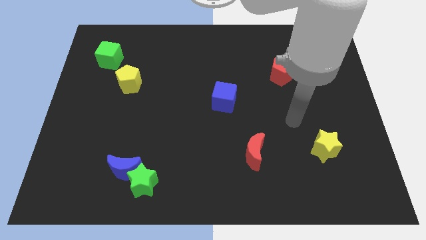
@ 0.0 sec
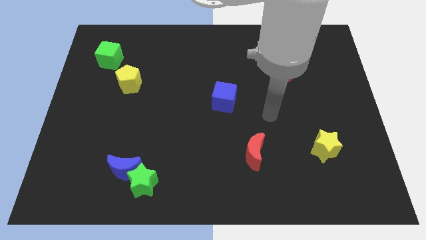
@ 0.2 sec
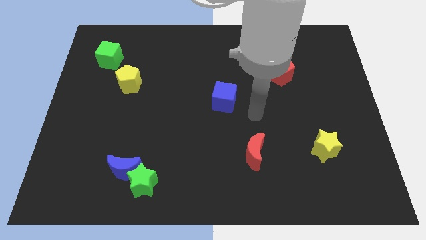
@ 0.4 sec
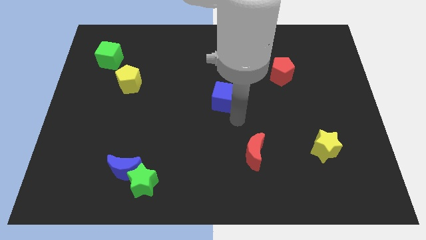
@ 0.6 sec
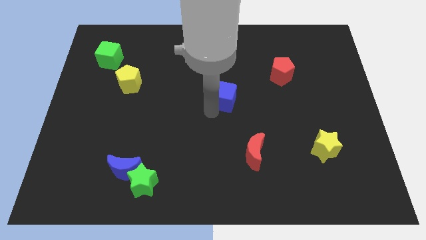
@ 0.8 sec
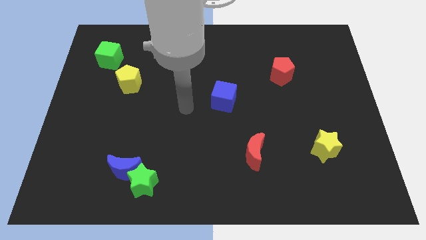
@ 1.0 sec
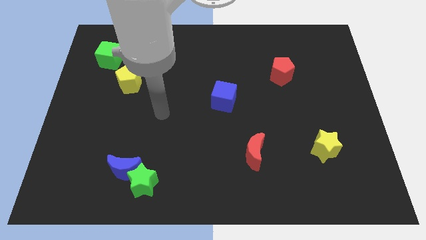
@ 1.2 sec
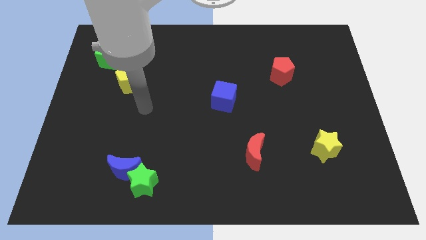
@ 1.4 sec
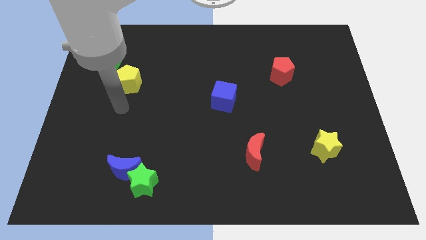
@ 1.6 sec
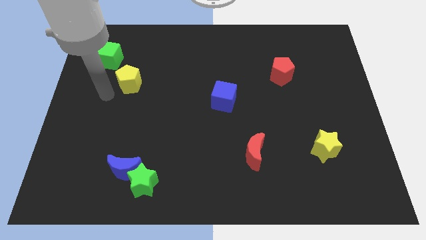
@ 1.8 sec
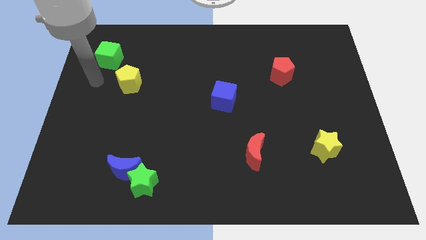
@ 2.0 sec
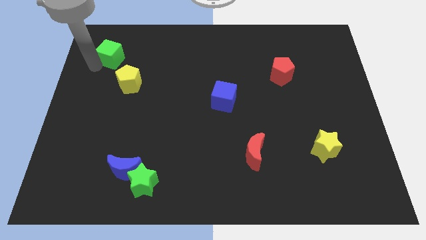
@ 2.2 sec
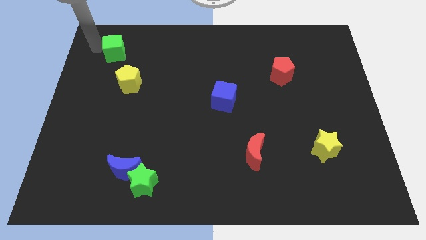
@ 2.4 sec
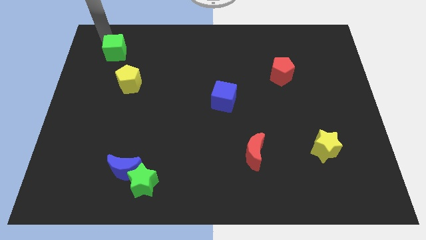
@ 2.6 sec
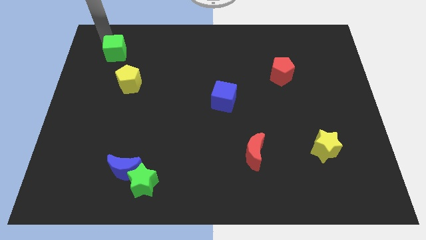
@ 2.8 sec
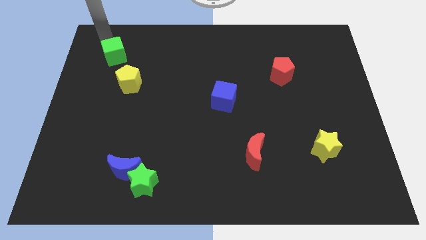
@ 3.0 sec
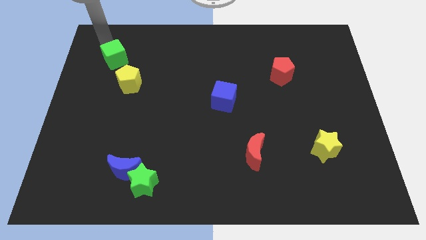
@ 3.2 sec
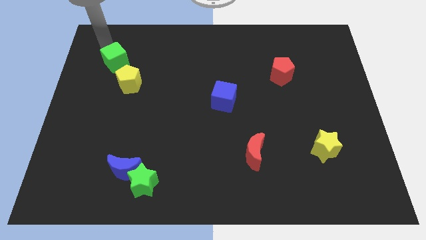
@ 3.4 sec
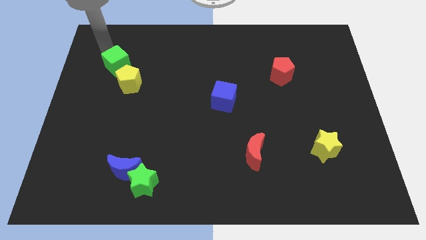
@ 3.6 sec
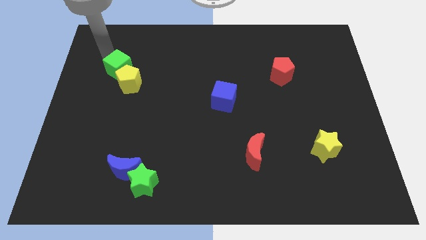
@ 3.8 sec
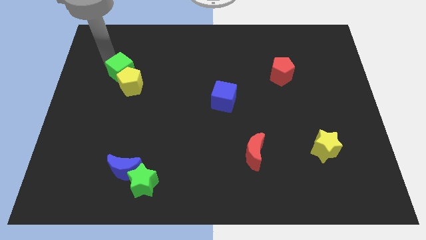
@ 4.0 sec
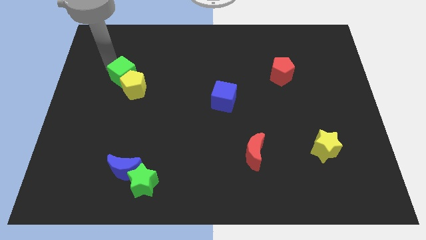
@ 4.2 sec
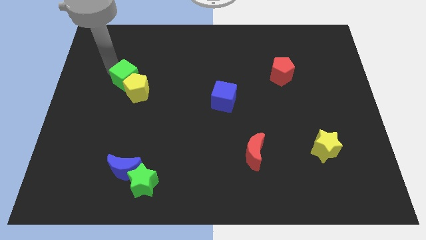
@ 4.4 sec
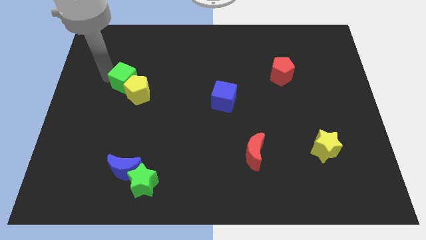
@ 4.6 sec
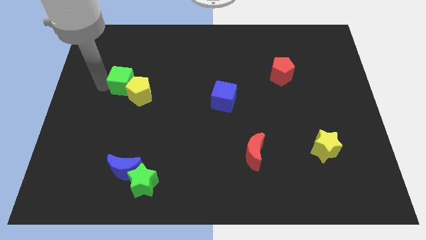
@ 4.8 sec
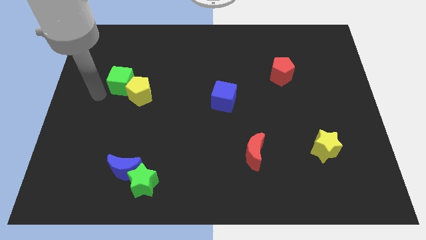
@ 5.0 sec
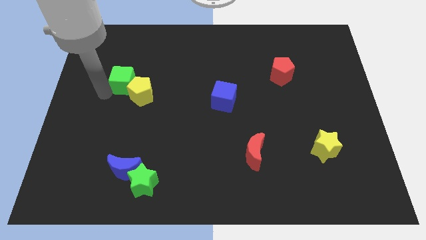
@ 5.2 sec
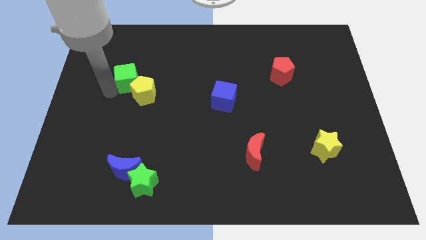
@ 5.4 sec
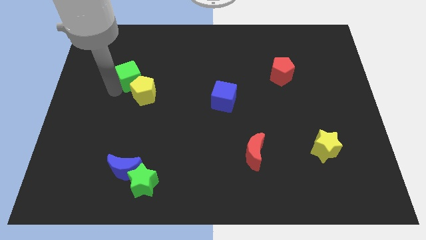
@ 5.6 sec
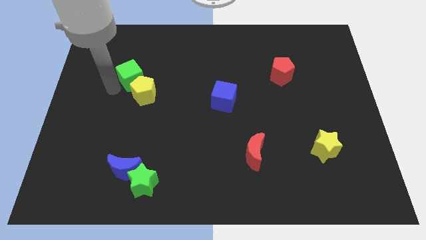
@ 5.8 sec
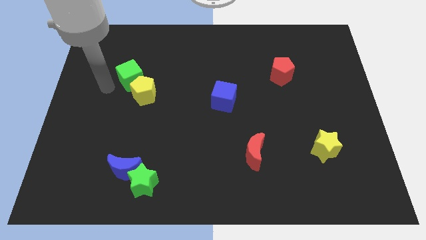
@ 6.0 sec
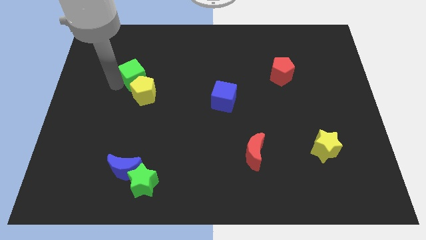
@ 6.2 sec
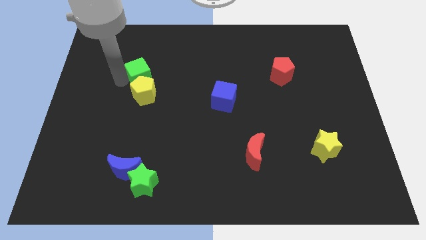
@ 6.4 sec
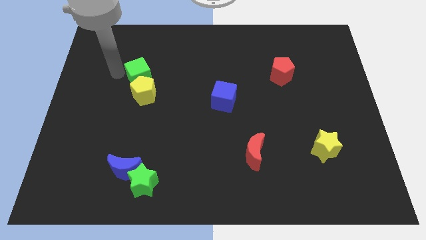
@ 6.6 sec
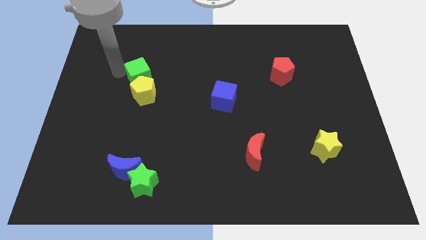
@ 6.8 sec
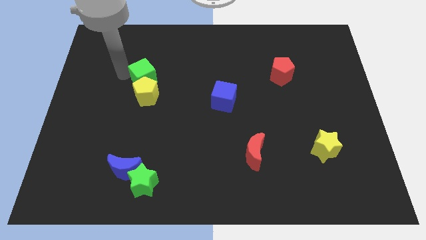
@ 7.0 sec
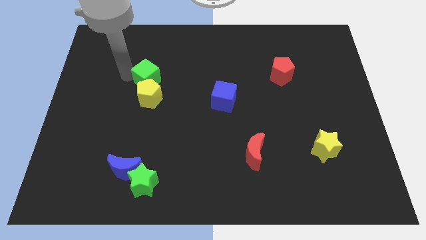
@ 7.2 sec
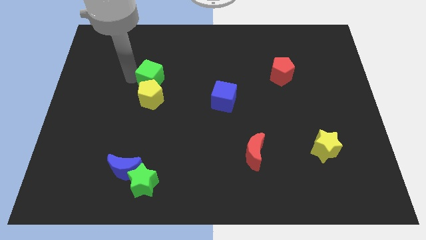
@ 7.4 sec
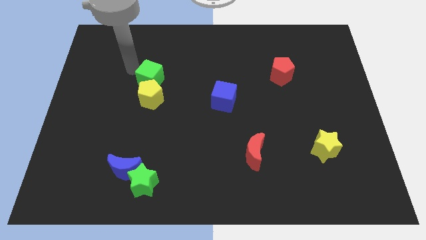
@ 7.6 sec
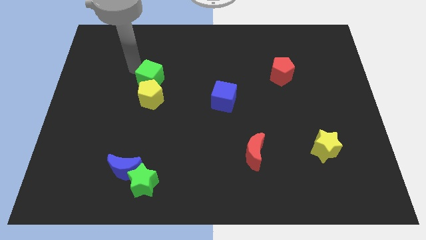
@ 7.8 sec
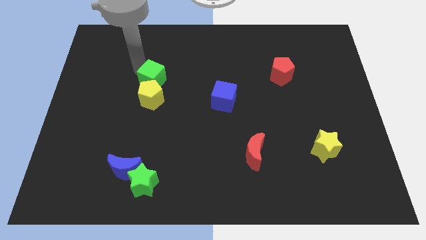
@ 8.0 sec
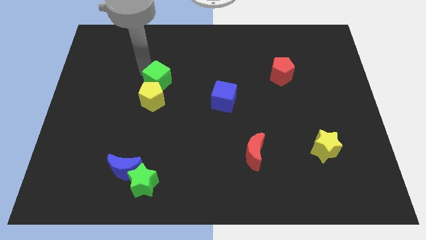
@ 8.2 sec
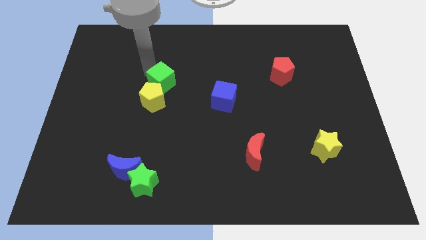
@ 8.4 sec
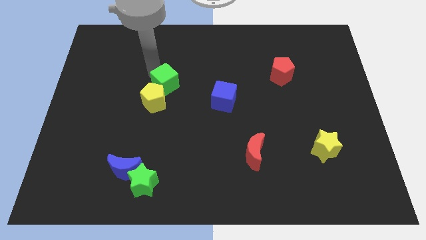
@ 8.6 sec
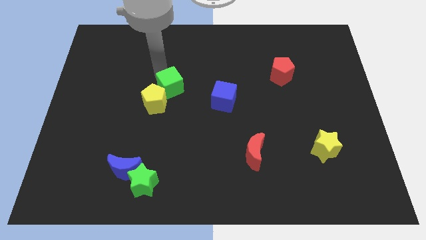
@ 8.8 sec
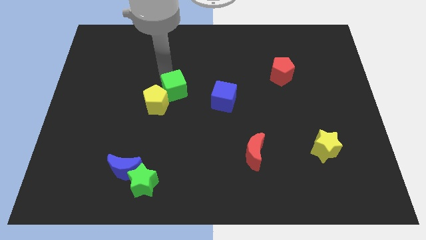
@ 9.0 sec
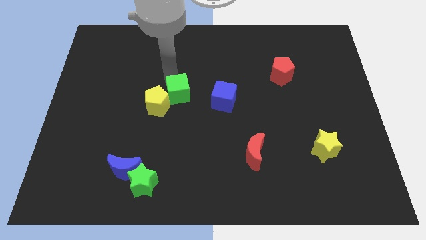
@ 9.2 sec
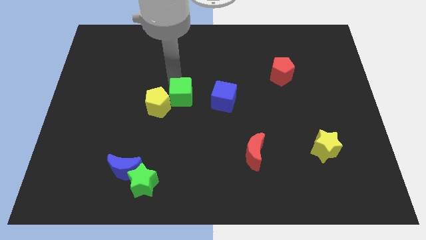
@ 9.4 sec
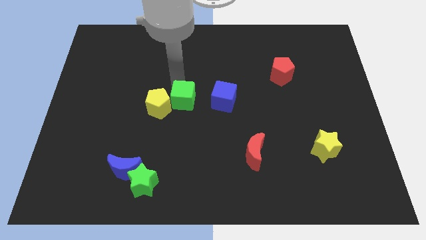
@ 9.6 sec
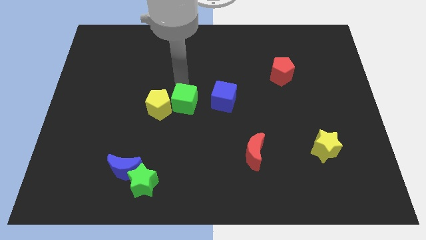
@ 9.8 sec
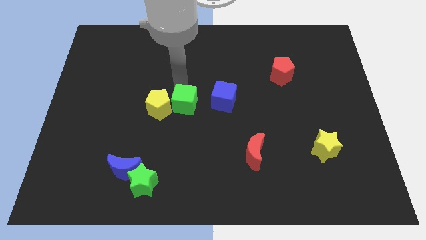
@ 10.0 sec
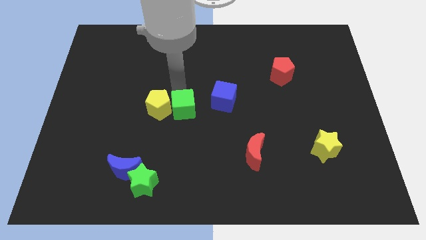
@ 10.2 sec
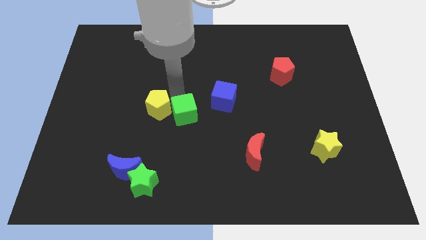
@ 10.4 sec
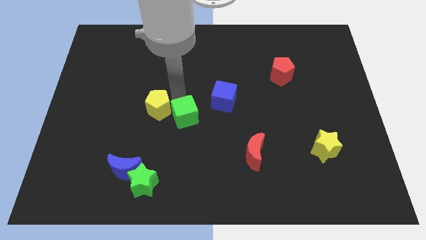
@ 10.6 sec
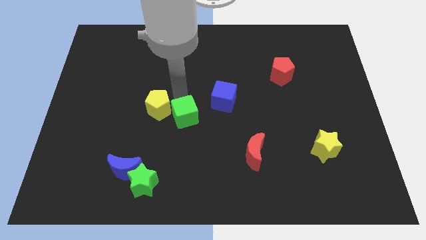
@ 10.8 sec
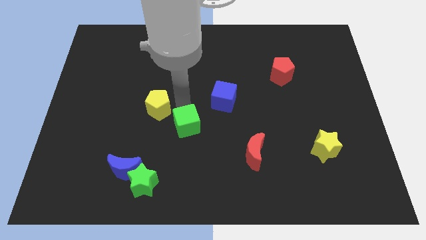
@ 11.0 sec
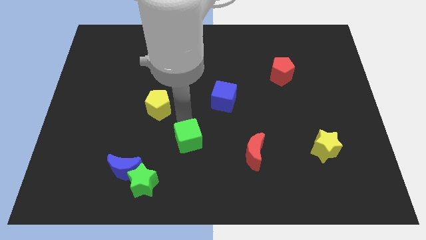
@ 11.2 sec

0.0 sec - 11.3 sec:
move the green cube left of the red moon

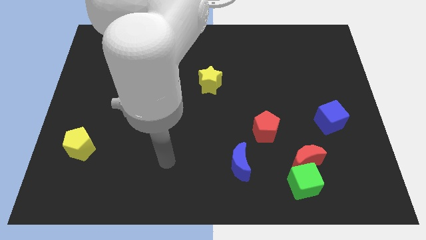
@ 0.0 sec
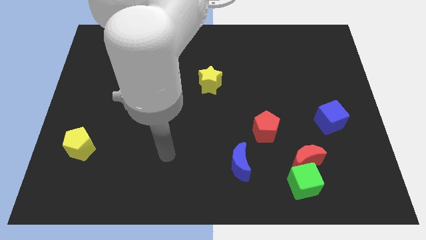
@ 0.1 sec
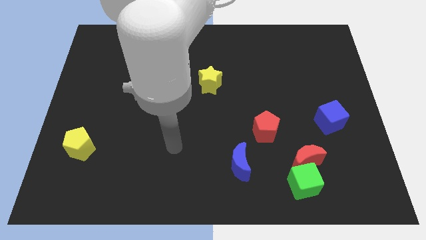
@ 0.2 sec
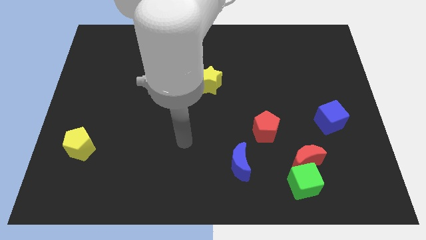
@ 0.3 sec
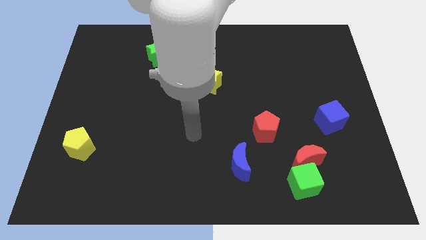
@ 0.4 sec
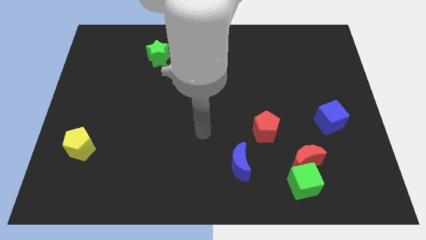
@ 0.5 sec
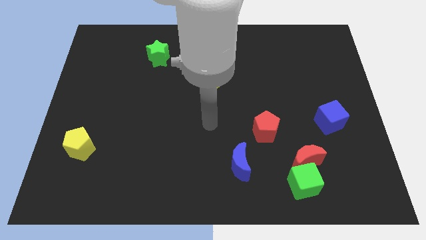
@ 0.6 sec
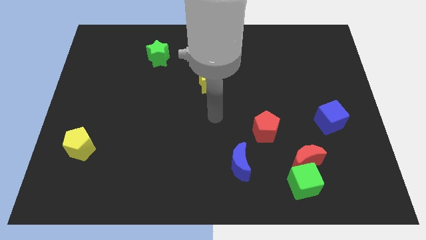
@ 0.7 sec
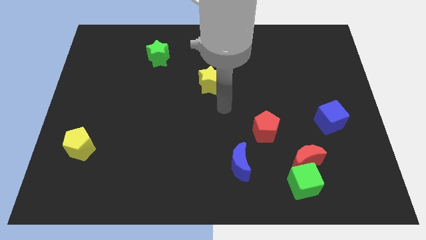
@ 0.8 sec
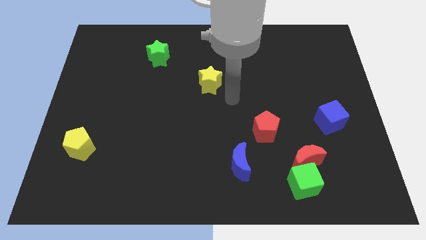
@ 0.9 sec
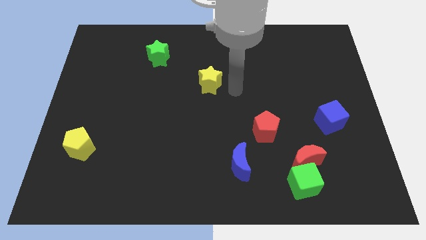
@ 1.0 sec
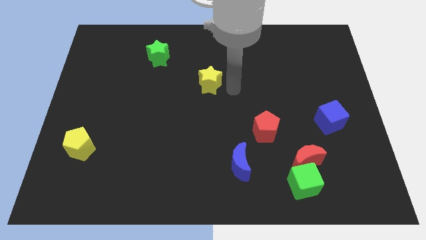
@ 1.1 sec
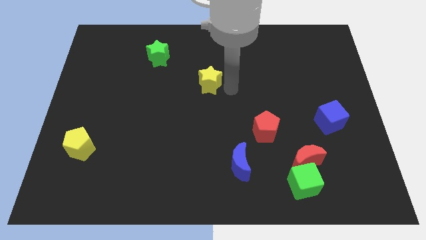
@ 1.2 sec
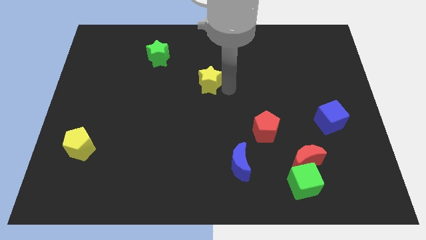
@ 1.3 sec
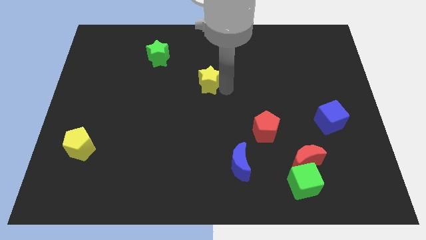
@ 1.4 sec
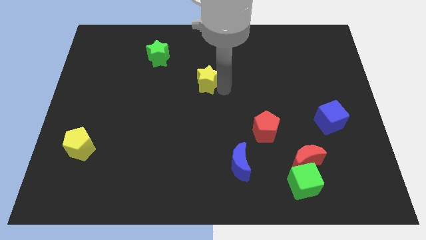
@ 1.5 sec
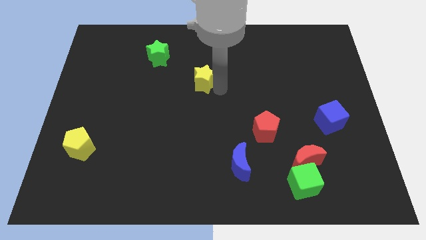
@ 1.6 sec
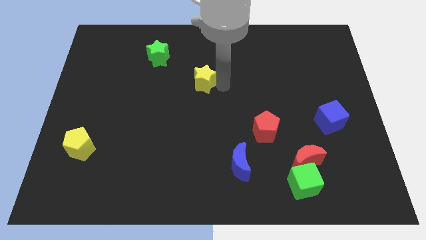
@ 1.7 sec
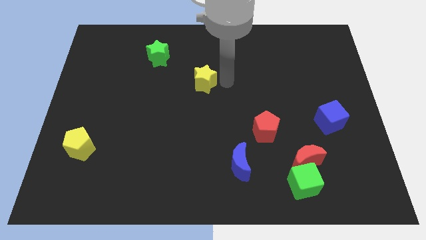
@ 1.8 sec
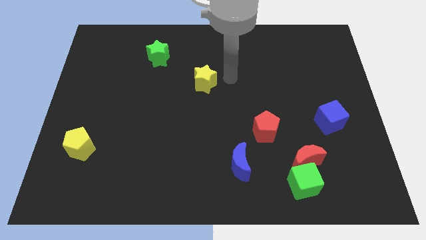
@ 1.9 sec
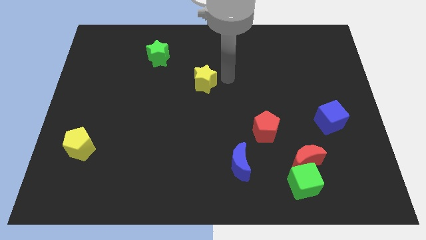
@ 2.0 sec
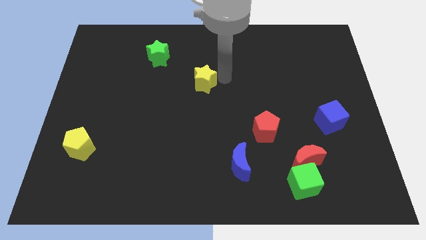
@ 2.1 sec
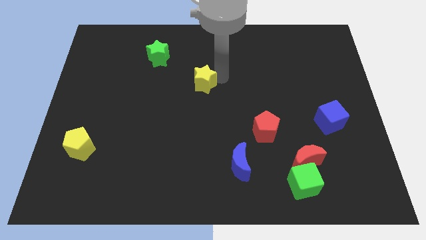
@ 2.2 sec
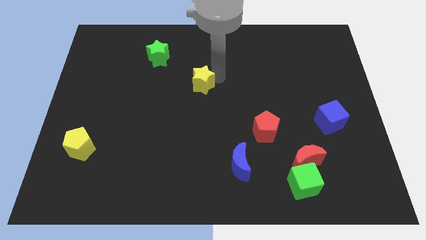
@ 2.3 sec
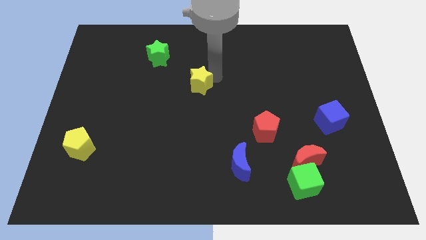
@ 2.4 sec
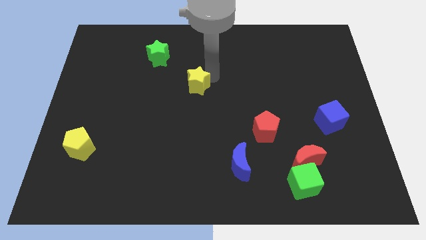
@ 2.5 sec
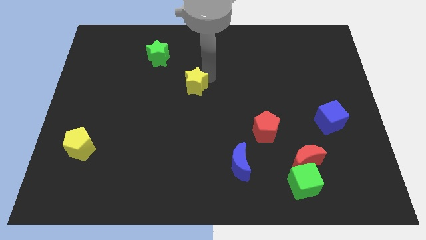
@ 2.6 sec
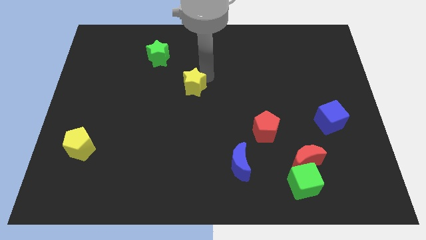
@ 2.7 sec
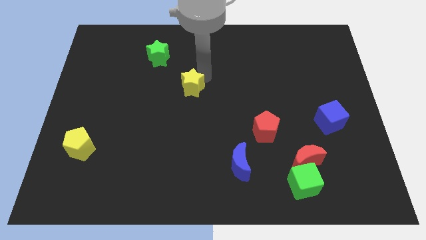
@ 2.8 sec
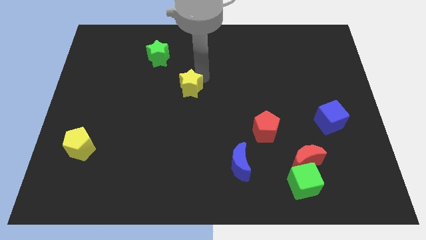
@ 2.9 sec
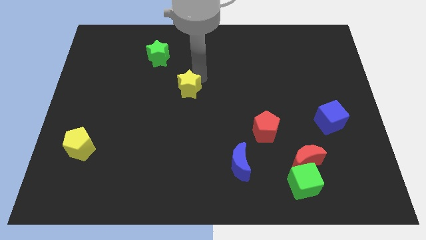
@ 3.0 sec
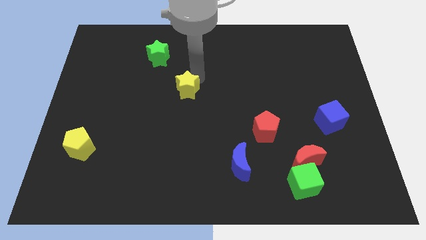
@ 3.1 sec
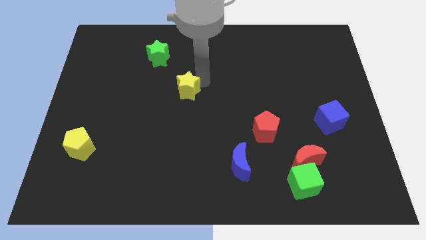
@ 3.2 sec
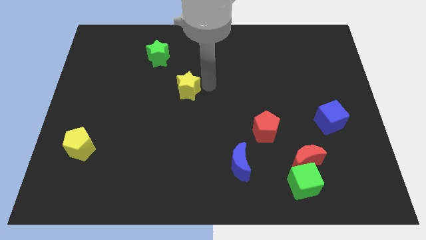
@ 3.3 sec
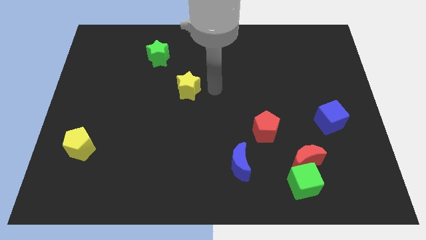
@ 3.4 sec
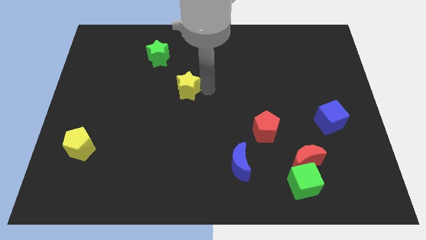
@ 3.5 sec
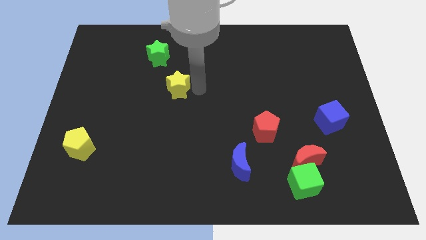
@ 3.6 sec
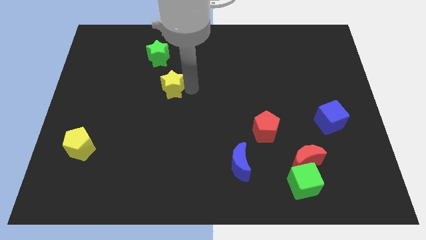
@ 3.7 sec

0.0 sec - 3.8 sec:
put the yellow star to the bottom side of the green star
